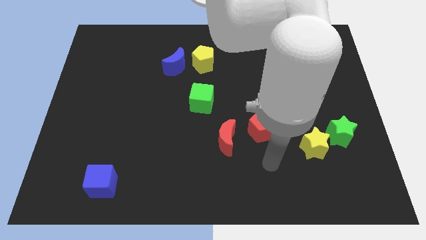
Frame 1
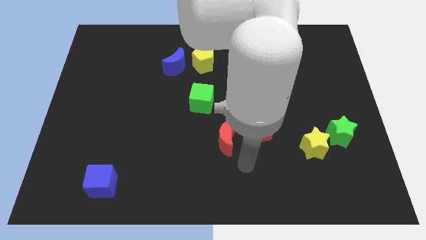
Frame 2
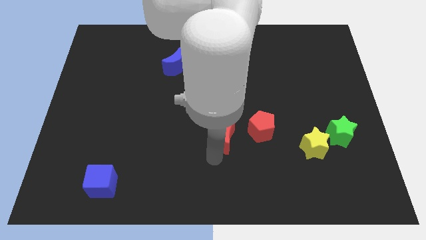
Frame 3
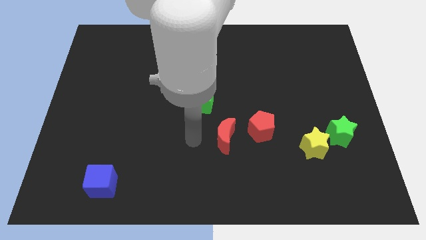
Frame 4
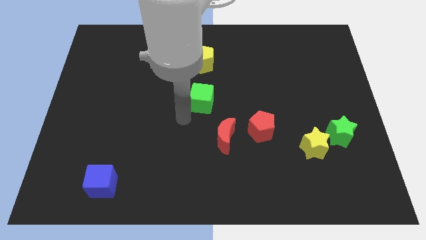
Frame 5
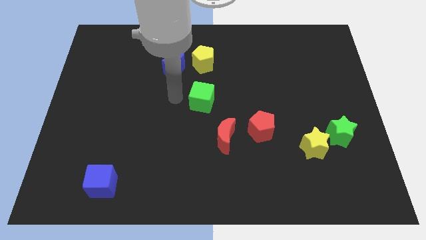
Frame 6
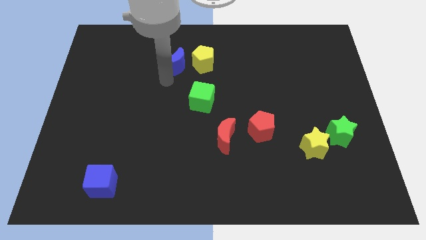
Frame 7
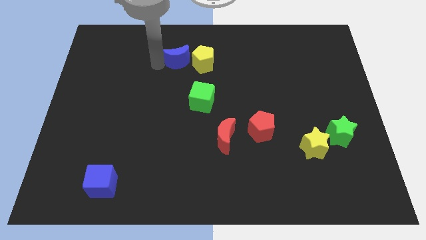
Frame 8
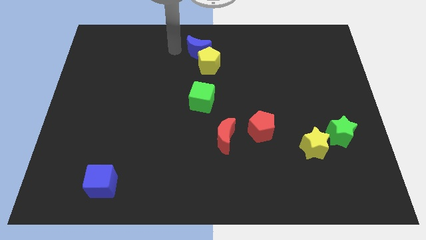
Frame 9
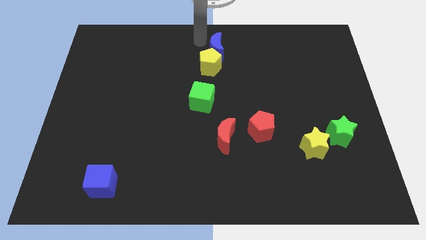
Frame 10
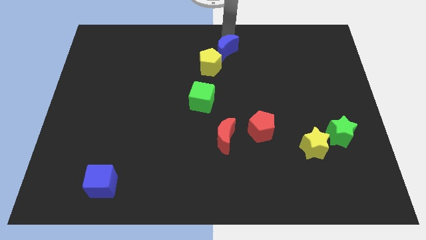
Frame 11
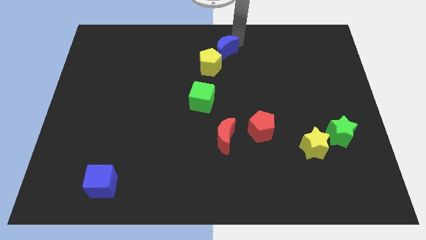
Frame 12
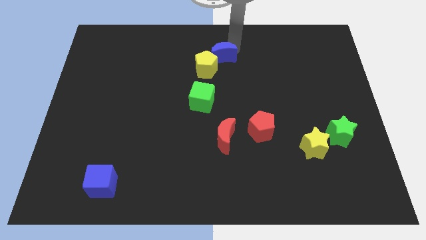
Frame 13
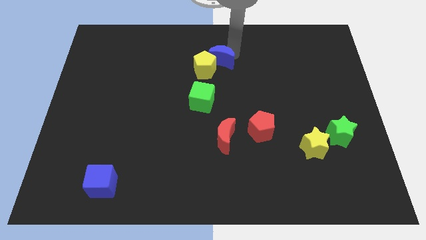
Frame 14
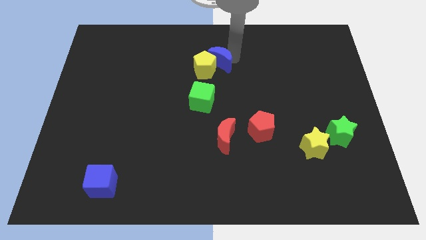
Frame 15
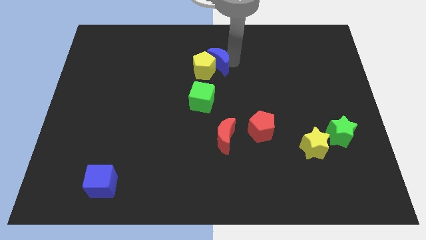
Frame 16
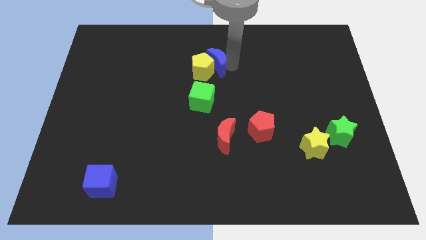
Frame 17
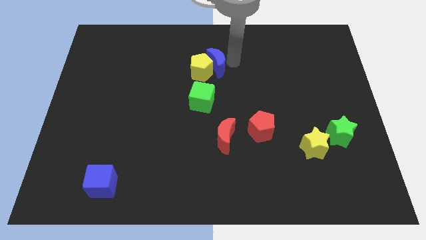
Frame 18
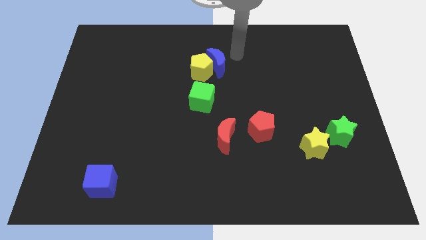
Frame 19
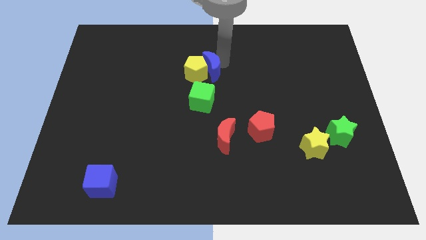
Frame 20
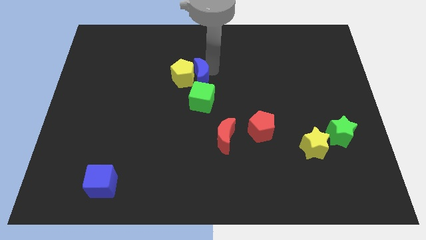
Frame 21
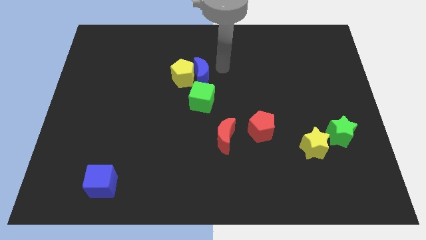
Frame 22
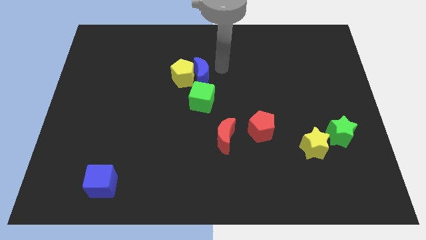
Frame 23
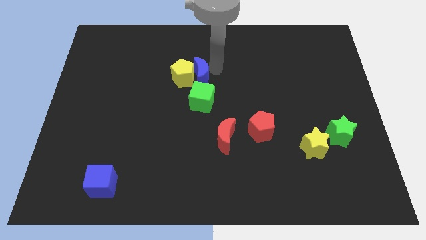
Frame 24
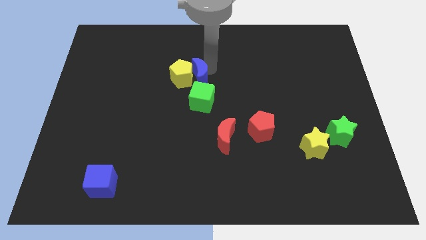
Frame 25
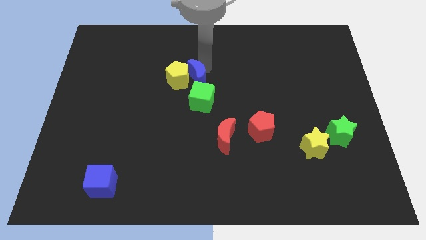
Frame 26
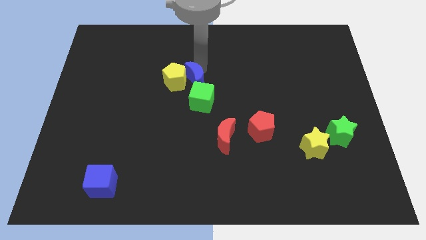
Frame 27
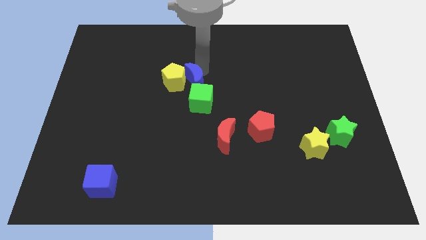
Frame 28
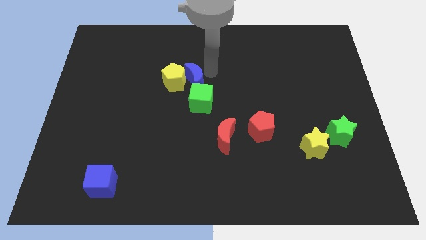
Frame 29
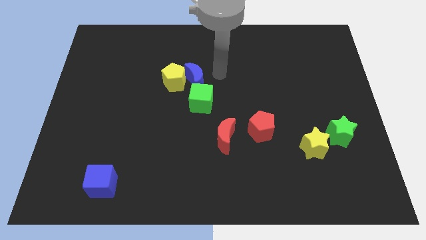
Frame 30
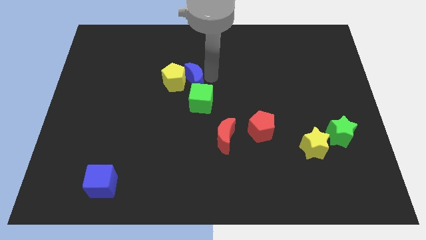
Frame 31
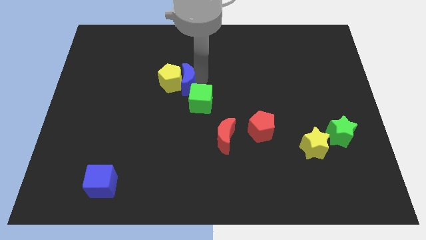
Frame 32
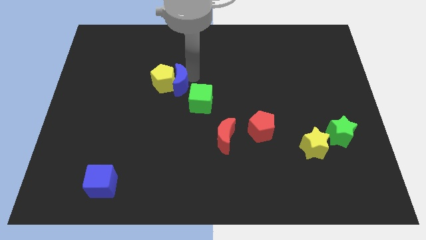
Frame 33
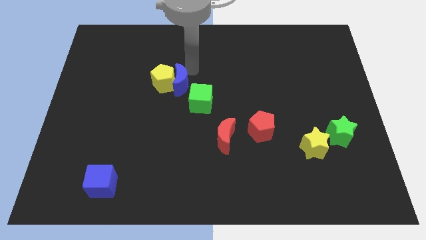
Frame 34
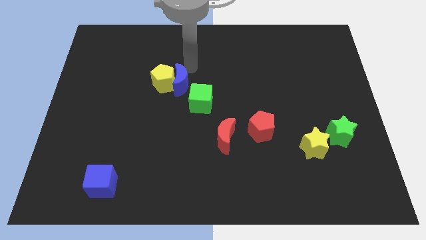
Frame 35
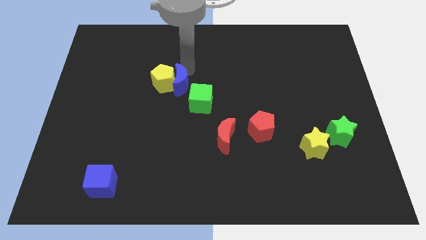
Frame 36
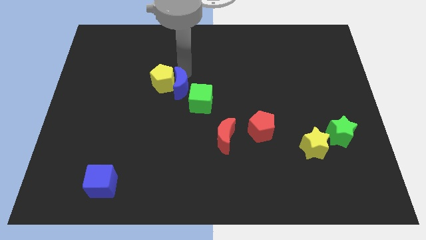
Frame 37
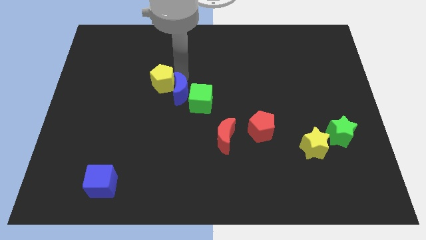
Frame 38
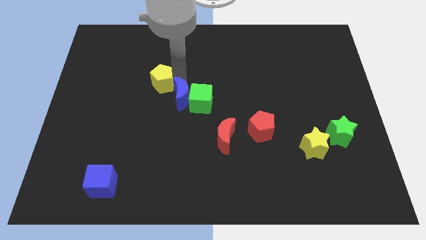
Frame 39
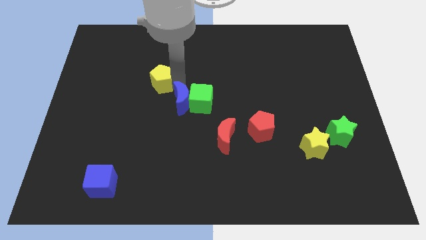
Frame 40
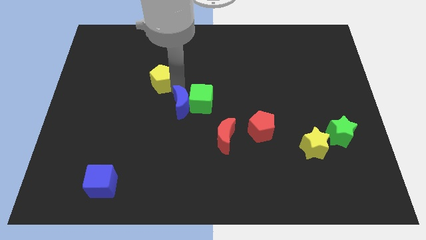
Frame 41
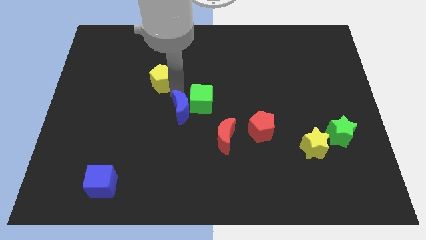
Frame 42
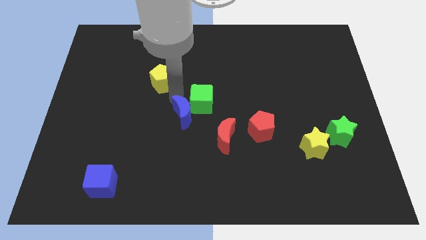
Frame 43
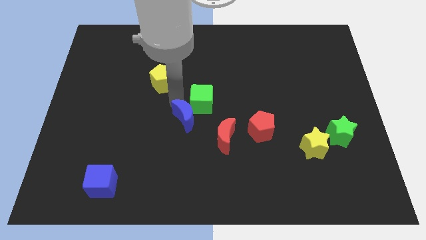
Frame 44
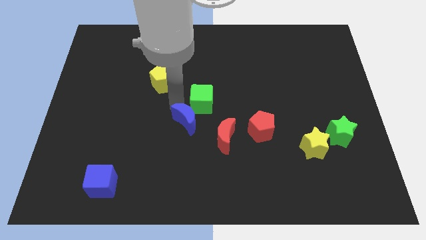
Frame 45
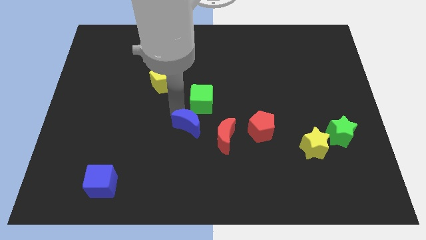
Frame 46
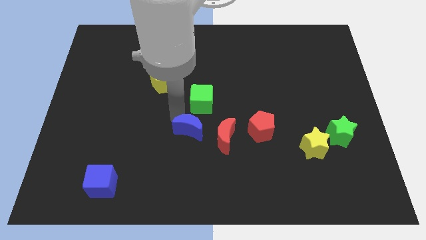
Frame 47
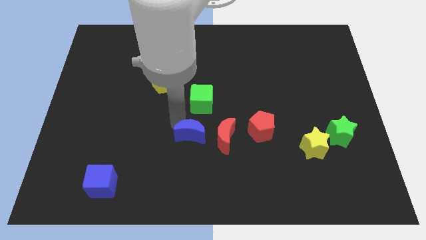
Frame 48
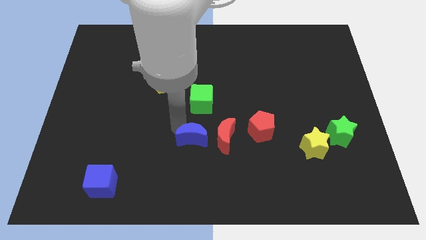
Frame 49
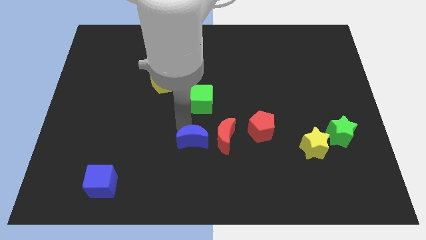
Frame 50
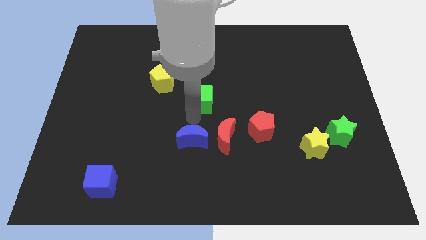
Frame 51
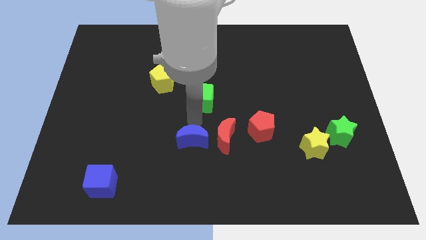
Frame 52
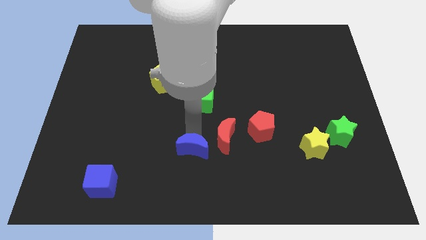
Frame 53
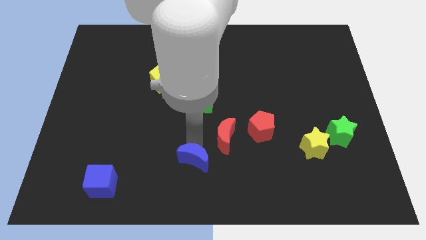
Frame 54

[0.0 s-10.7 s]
slide the blue moon to the bottom
